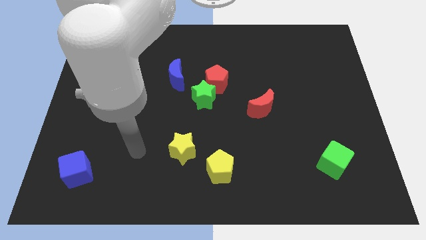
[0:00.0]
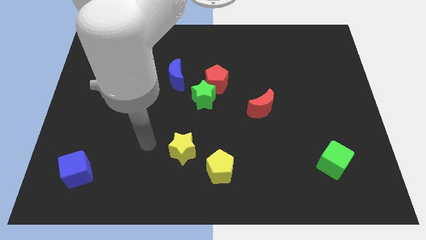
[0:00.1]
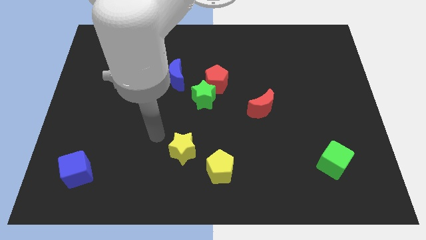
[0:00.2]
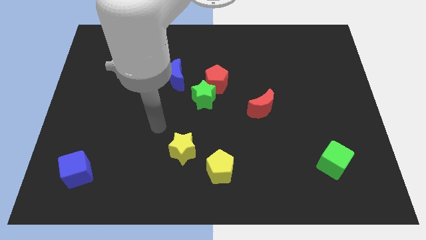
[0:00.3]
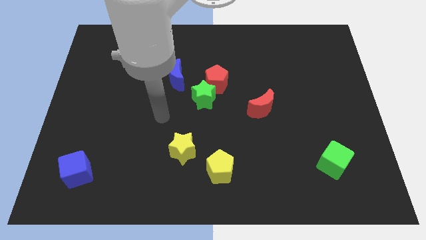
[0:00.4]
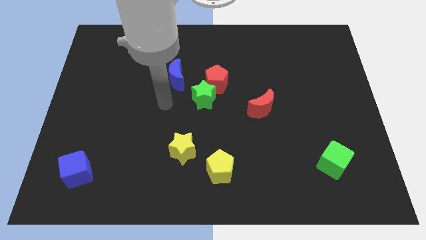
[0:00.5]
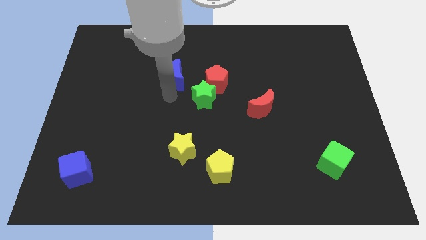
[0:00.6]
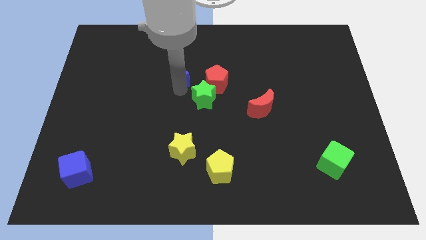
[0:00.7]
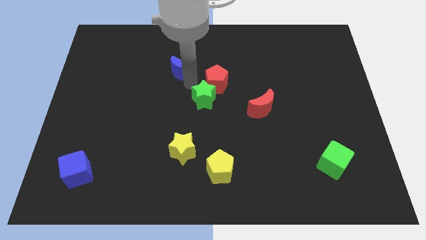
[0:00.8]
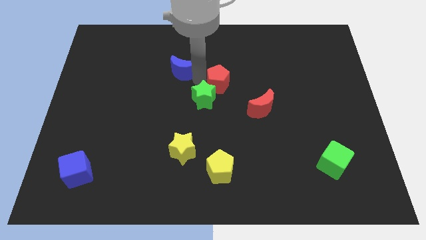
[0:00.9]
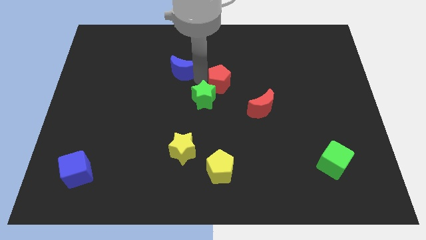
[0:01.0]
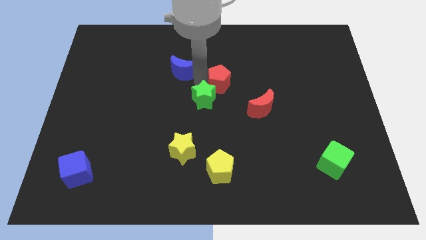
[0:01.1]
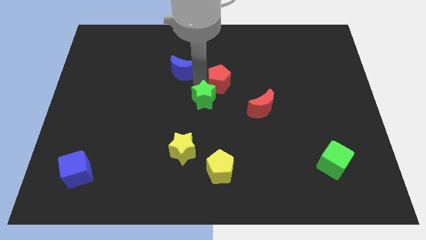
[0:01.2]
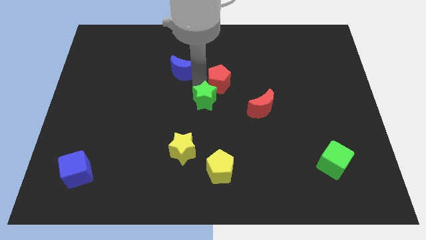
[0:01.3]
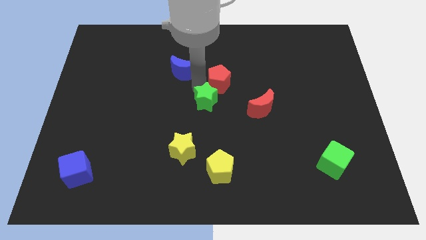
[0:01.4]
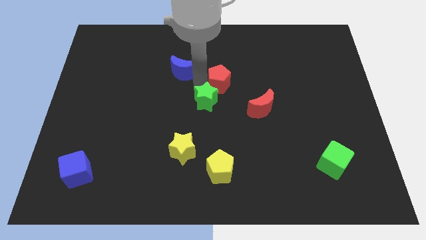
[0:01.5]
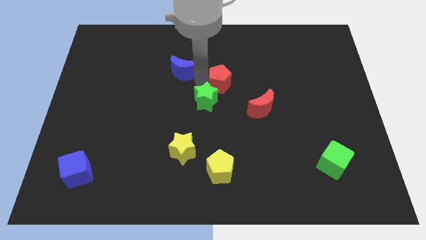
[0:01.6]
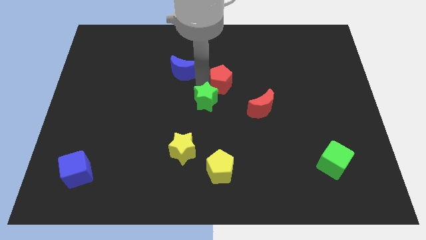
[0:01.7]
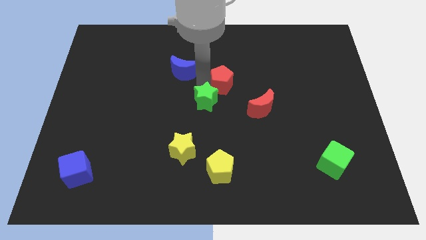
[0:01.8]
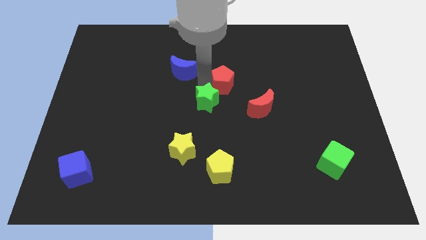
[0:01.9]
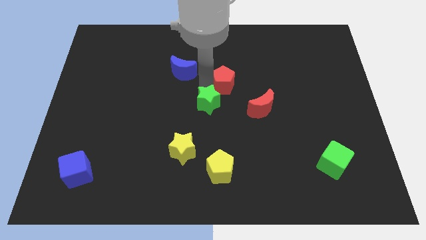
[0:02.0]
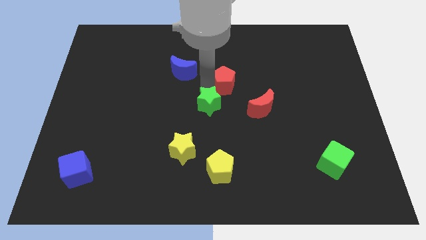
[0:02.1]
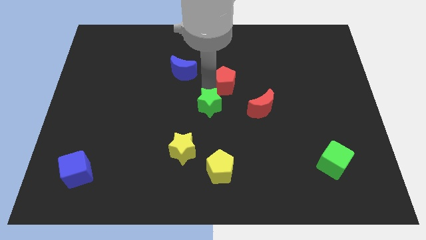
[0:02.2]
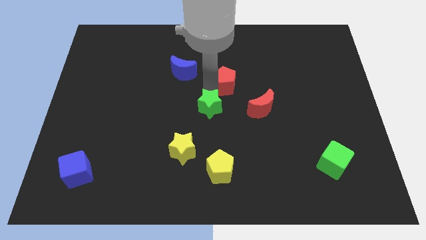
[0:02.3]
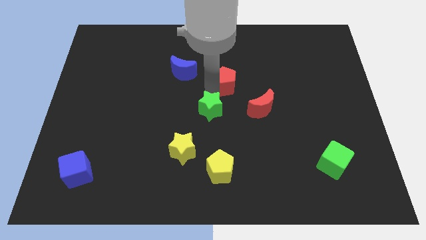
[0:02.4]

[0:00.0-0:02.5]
pull the green star apart from the red pentagon and blue moon

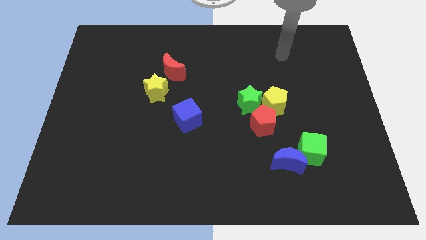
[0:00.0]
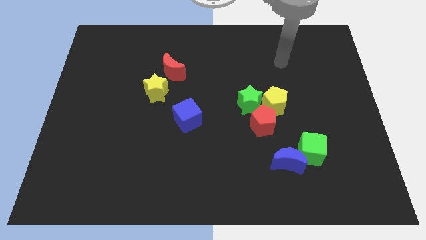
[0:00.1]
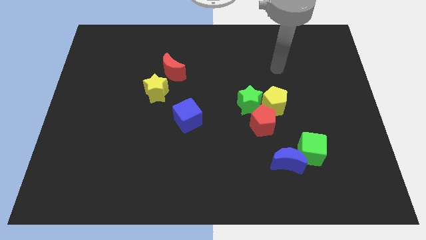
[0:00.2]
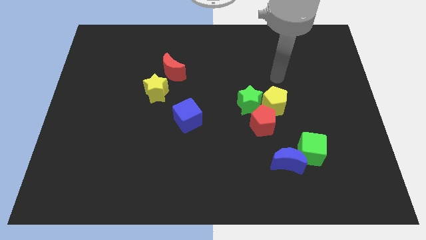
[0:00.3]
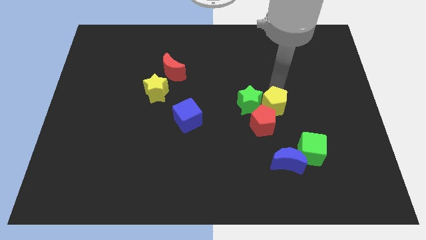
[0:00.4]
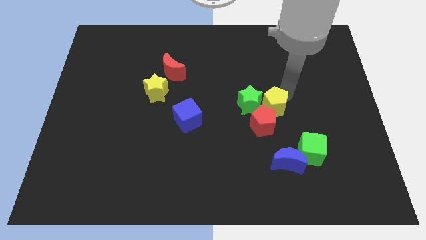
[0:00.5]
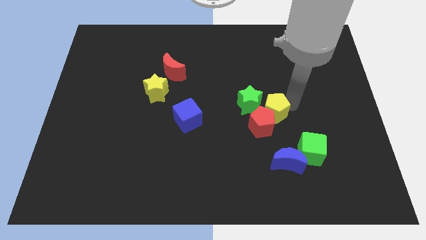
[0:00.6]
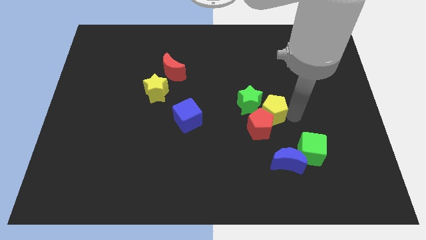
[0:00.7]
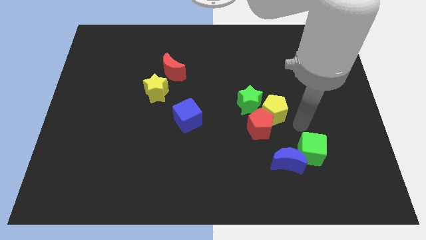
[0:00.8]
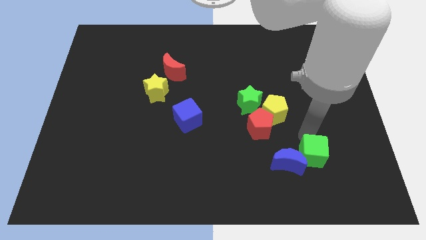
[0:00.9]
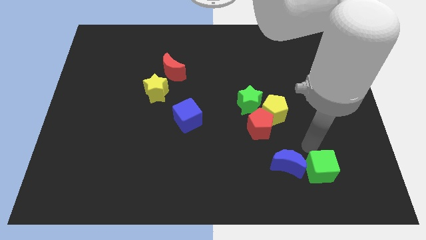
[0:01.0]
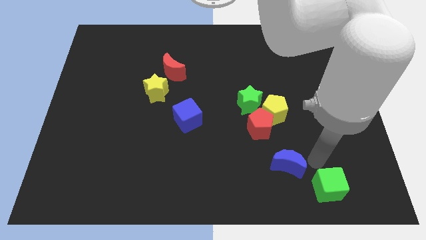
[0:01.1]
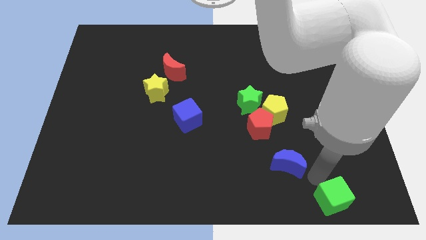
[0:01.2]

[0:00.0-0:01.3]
separate the blue moon from the green cube

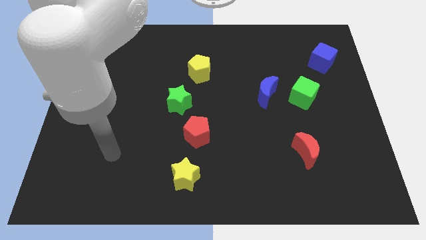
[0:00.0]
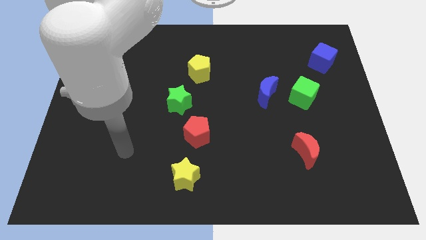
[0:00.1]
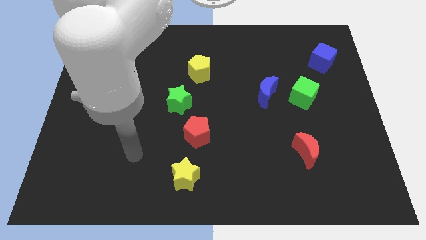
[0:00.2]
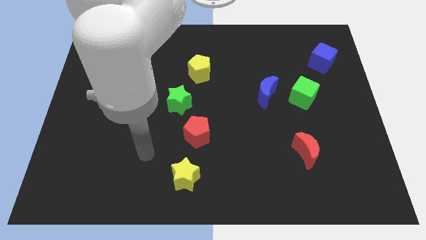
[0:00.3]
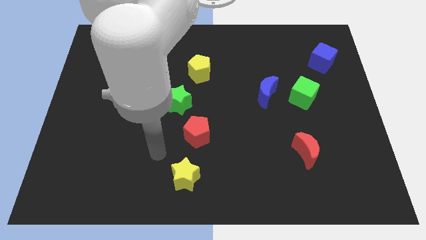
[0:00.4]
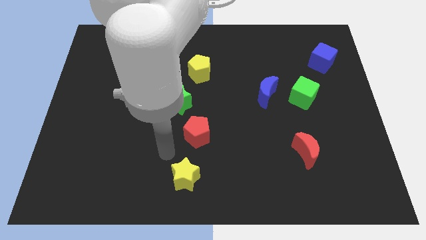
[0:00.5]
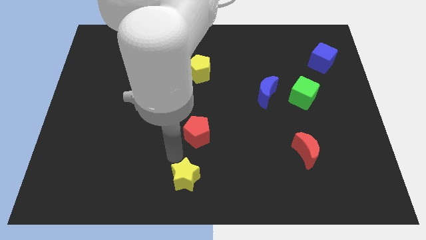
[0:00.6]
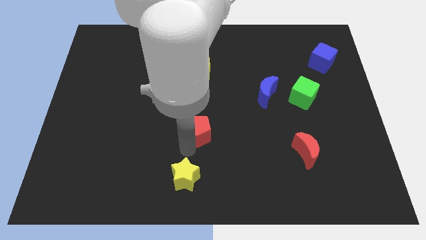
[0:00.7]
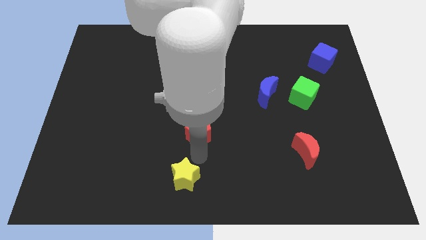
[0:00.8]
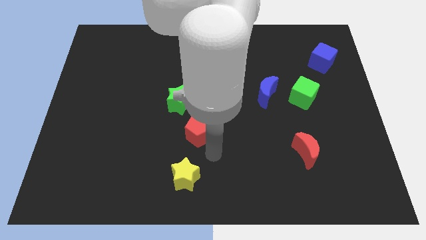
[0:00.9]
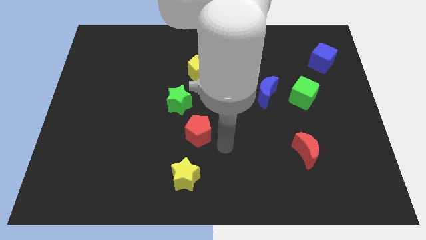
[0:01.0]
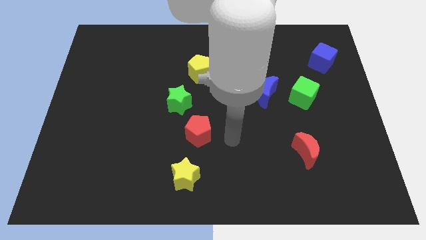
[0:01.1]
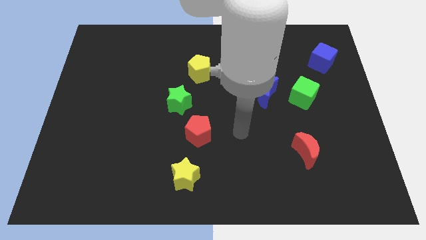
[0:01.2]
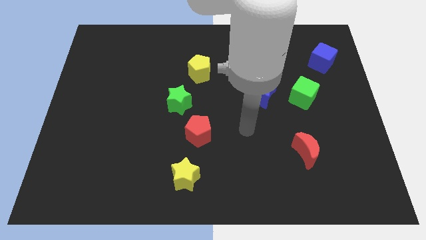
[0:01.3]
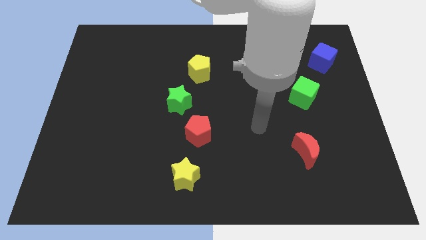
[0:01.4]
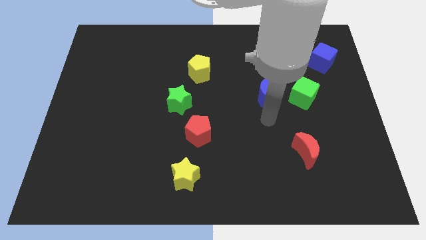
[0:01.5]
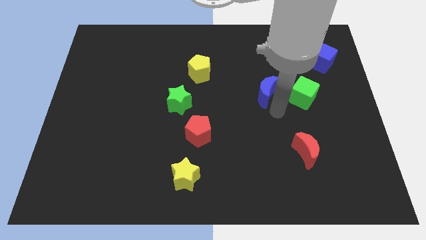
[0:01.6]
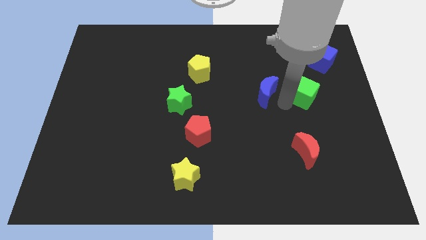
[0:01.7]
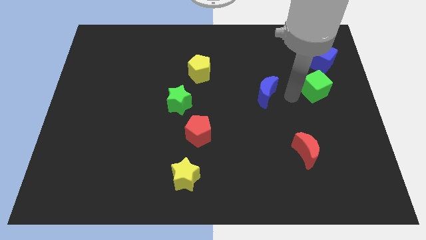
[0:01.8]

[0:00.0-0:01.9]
move the blue moon away from the green cube

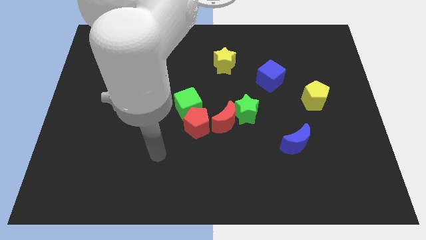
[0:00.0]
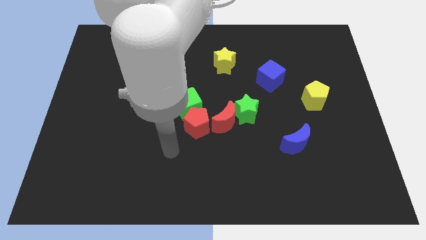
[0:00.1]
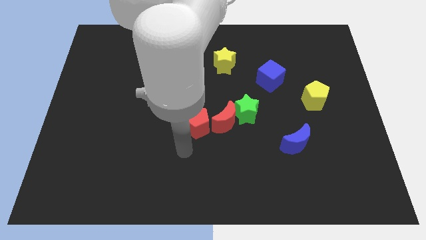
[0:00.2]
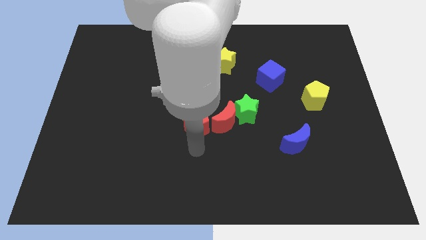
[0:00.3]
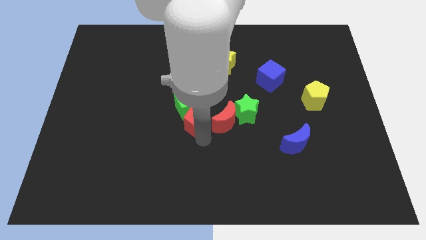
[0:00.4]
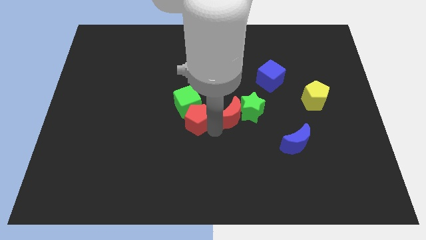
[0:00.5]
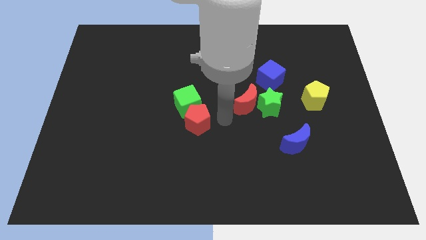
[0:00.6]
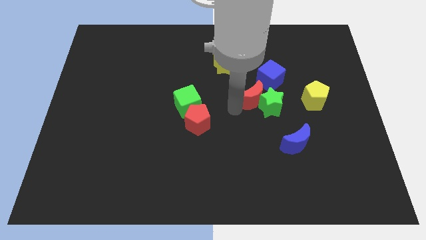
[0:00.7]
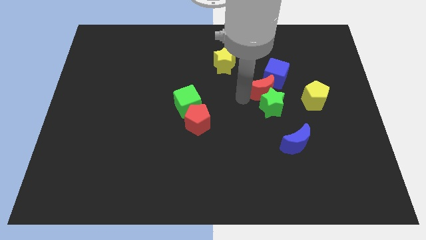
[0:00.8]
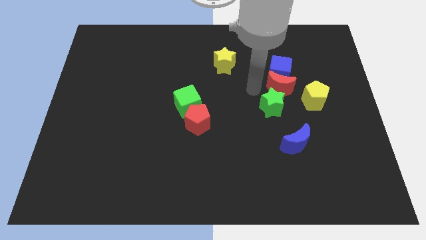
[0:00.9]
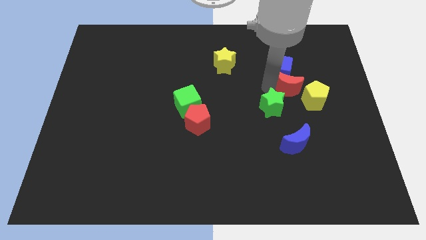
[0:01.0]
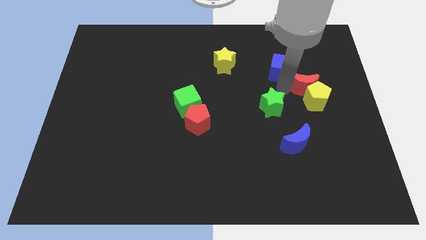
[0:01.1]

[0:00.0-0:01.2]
separate the green star from the red moon

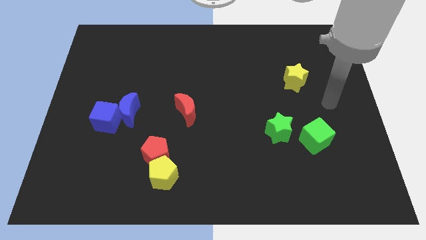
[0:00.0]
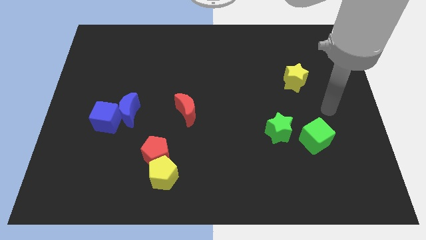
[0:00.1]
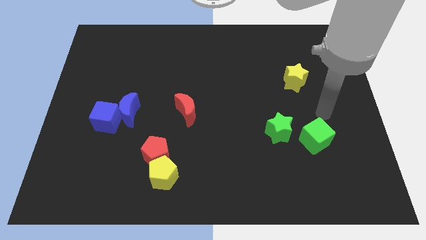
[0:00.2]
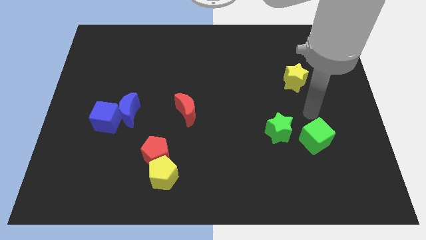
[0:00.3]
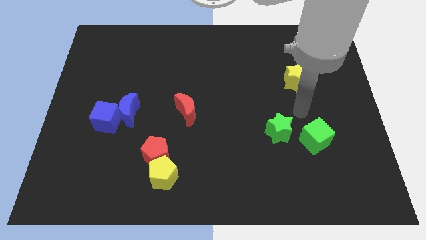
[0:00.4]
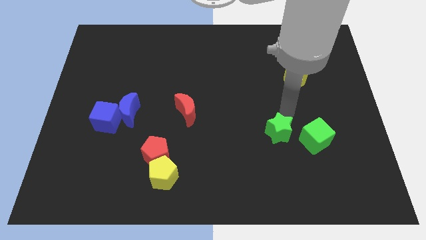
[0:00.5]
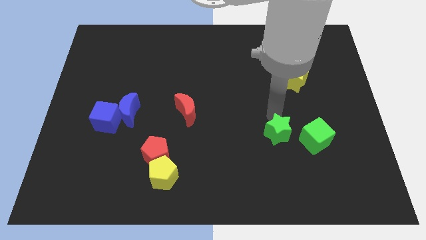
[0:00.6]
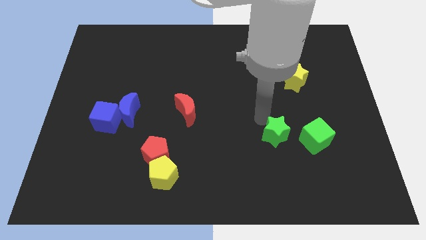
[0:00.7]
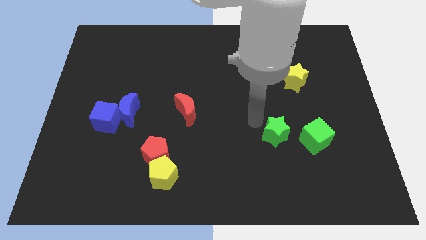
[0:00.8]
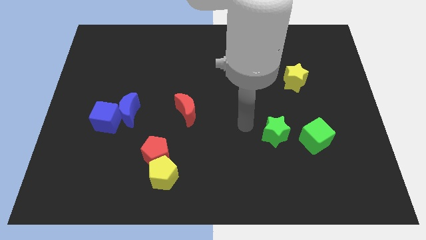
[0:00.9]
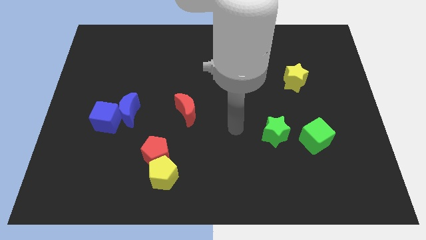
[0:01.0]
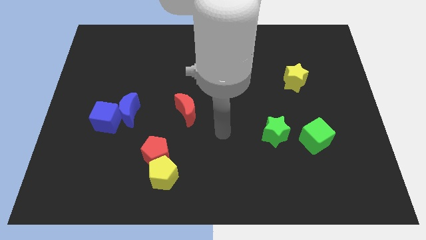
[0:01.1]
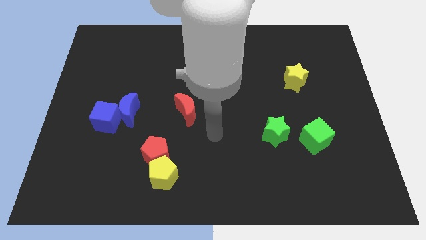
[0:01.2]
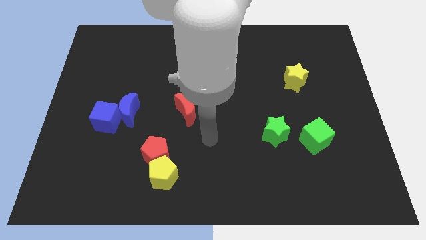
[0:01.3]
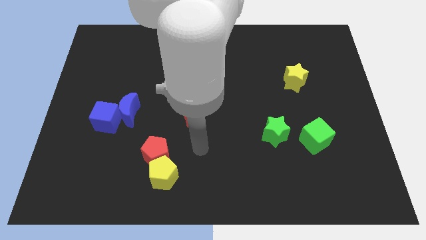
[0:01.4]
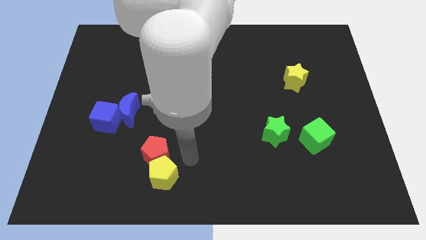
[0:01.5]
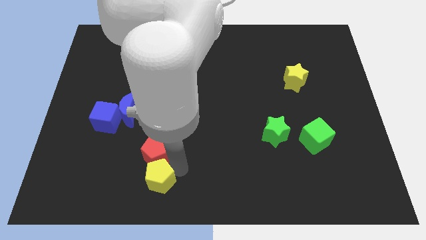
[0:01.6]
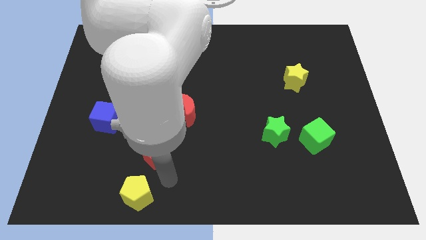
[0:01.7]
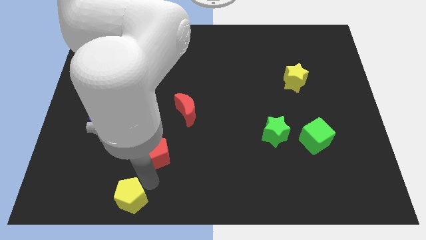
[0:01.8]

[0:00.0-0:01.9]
separate the red pentagon from the yellow pentagon

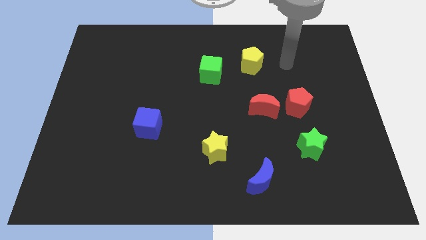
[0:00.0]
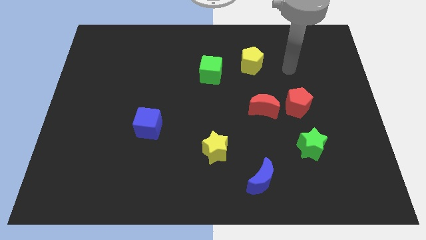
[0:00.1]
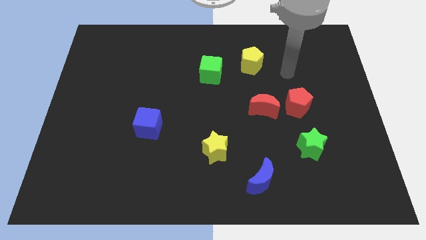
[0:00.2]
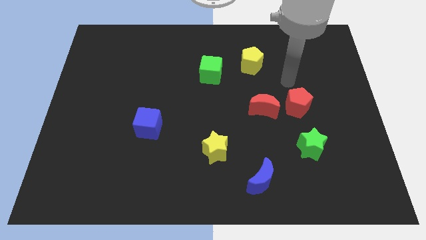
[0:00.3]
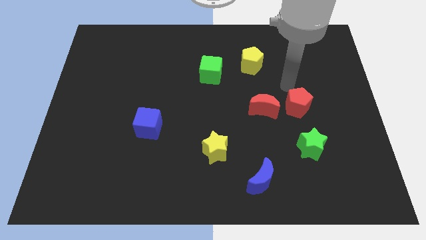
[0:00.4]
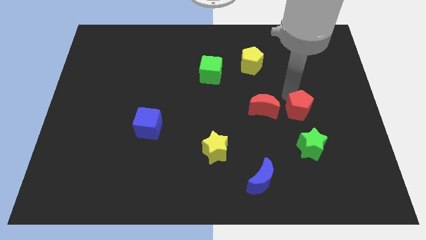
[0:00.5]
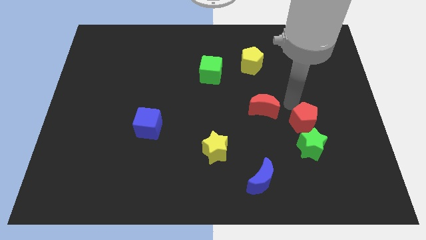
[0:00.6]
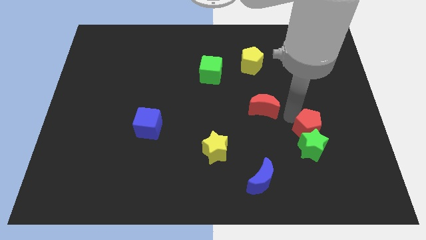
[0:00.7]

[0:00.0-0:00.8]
move the red moon away from the red pentagon
